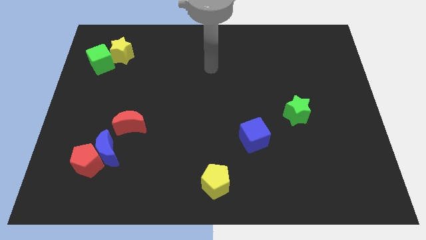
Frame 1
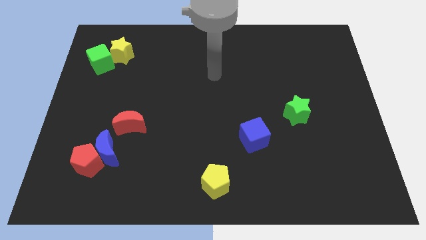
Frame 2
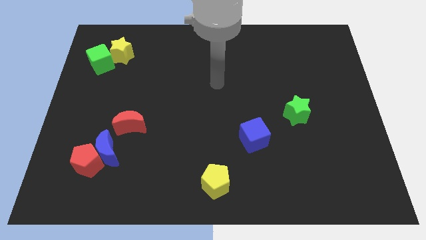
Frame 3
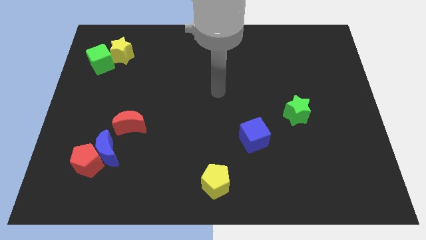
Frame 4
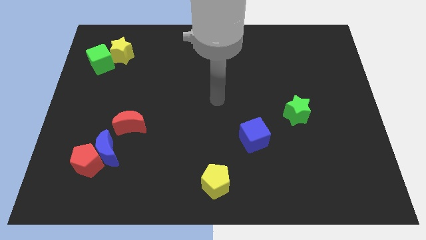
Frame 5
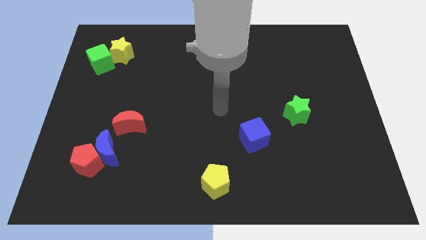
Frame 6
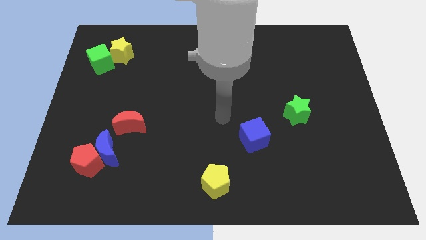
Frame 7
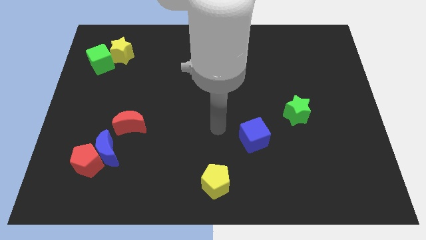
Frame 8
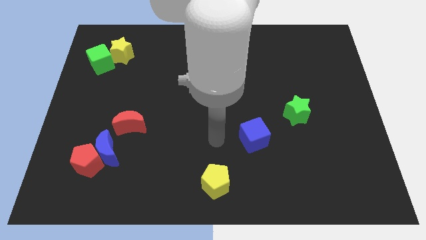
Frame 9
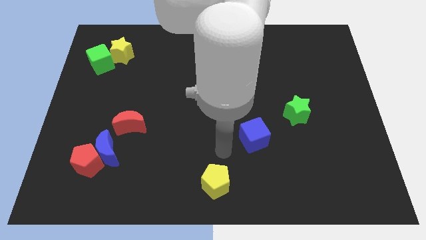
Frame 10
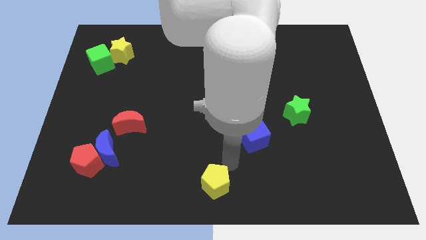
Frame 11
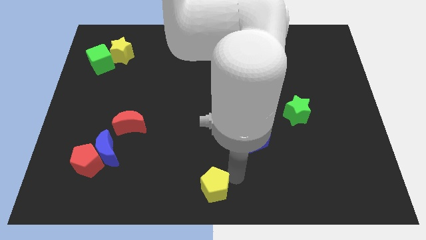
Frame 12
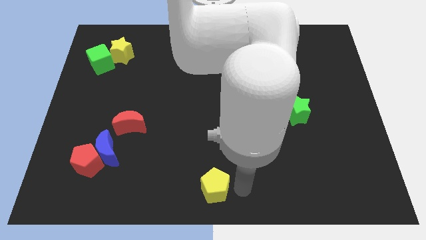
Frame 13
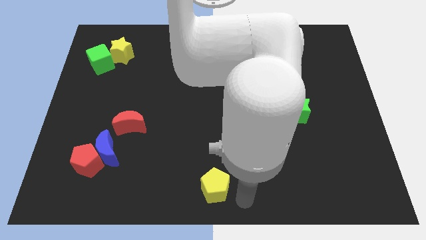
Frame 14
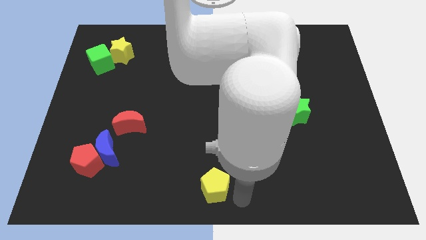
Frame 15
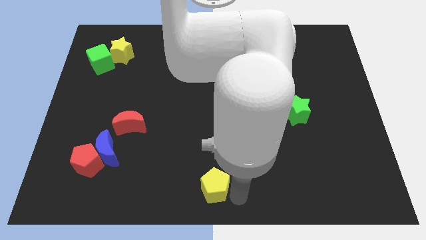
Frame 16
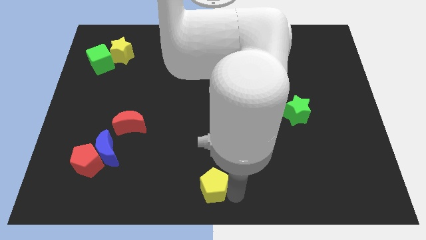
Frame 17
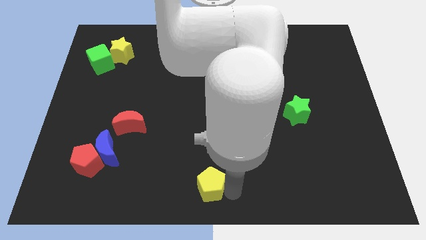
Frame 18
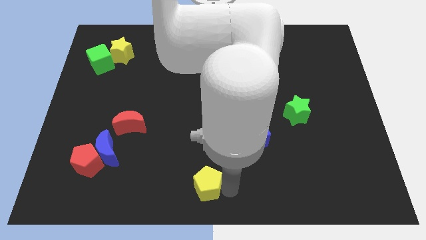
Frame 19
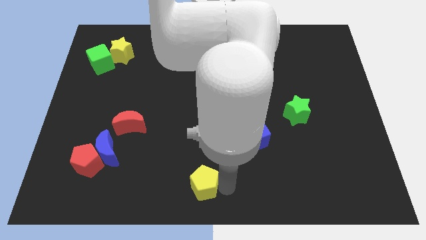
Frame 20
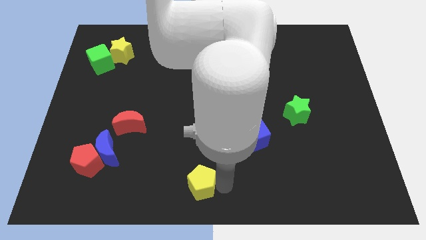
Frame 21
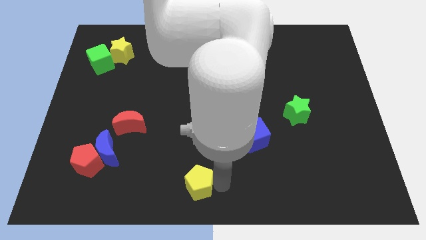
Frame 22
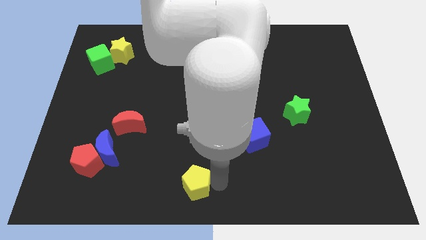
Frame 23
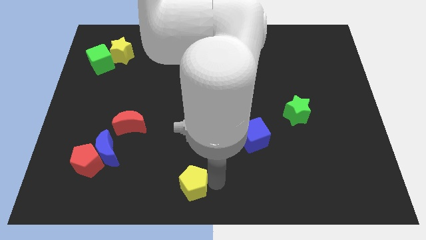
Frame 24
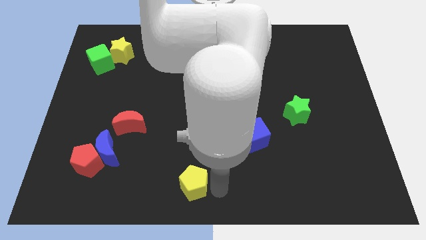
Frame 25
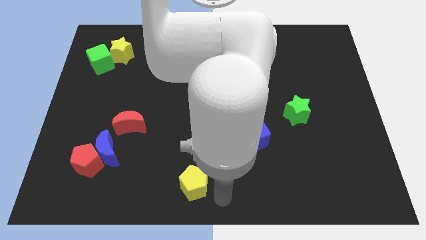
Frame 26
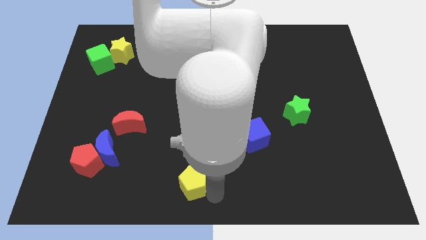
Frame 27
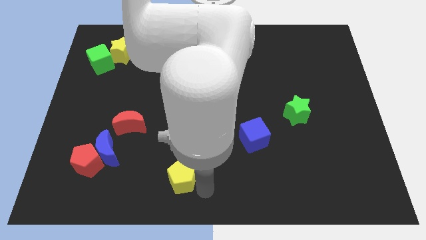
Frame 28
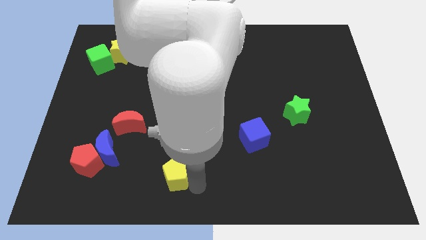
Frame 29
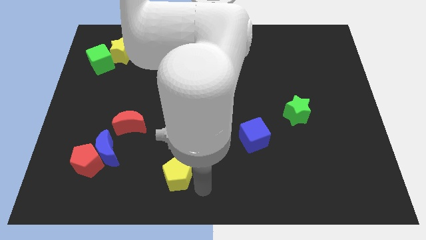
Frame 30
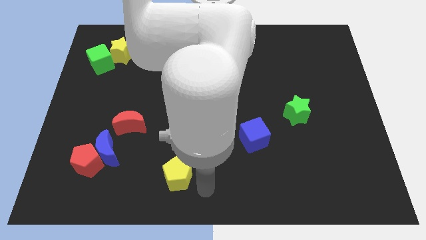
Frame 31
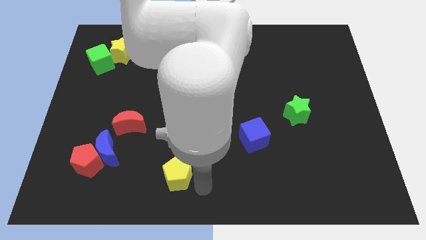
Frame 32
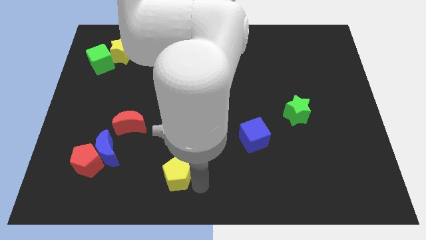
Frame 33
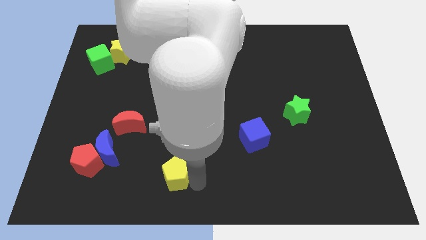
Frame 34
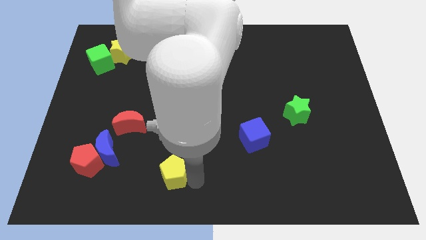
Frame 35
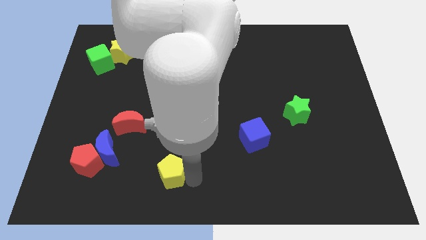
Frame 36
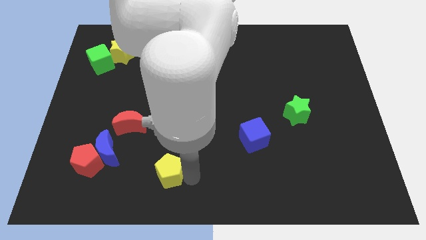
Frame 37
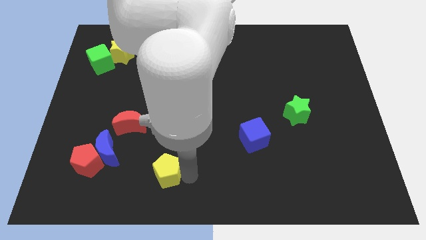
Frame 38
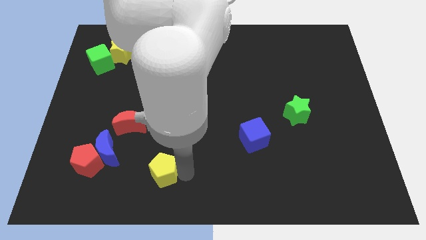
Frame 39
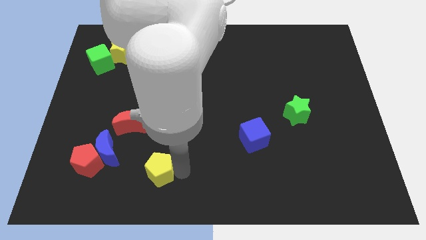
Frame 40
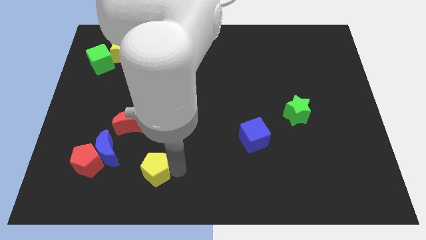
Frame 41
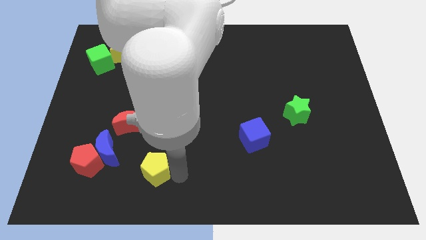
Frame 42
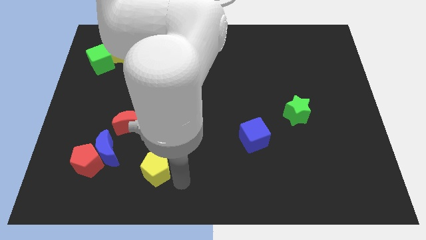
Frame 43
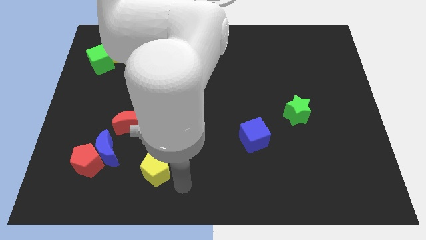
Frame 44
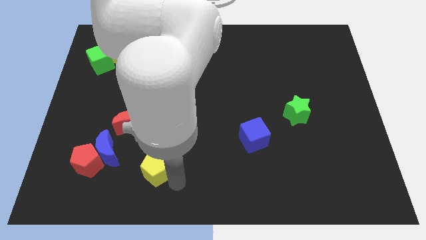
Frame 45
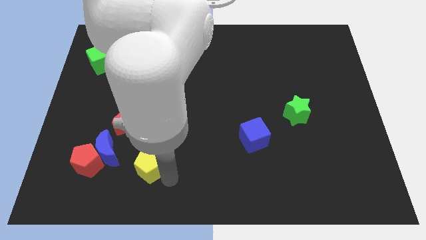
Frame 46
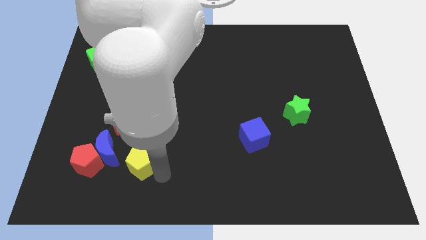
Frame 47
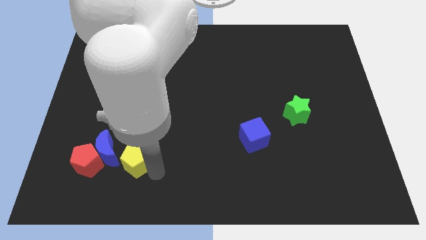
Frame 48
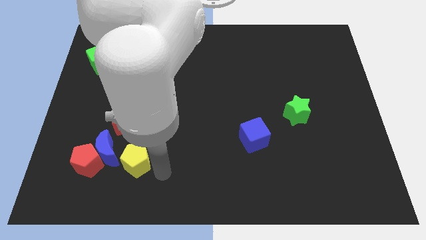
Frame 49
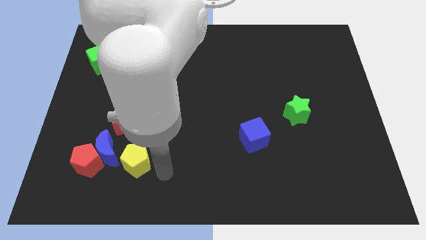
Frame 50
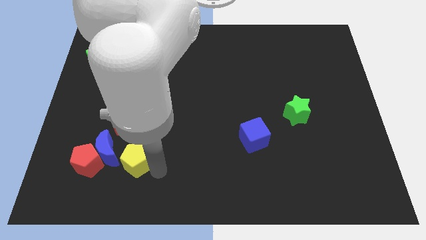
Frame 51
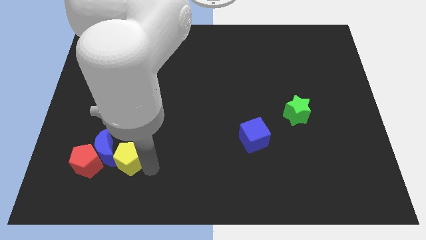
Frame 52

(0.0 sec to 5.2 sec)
put the yellow pentagon close to the blue moon

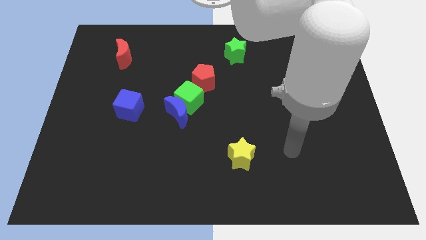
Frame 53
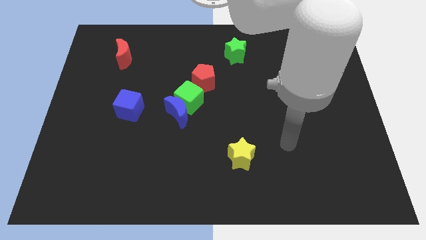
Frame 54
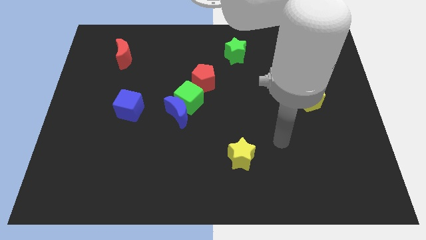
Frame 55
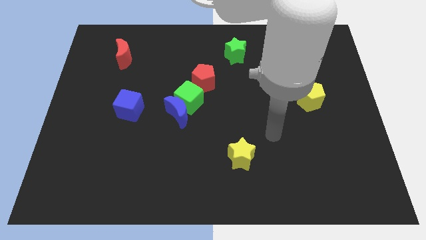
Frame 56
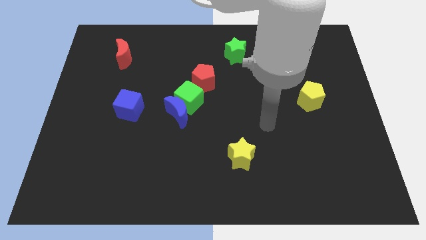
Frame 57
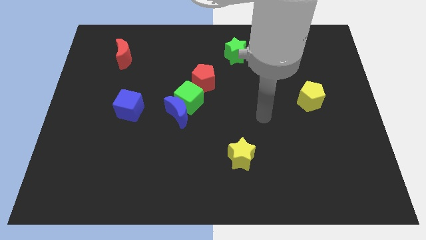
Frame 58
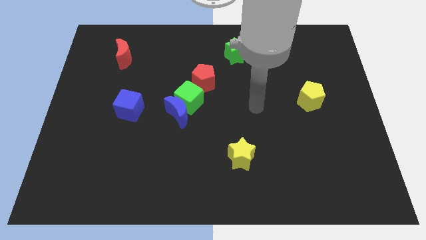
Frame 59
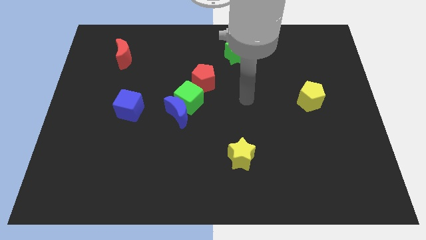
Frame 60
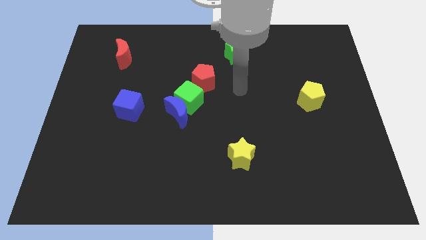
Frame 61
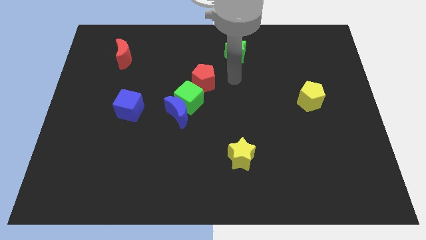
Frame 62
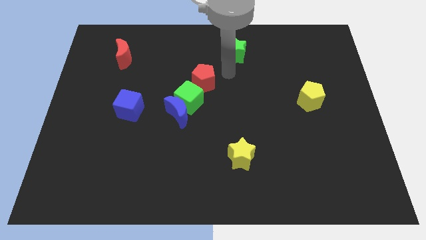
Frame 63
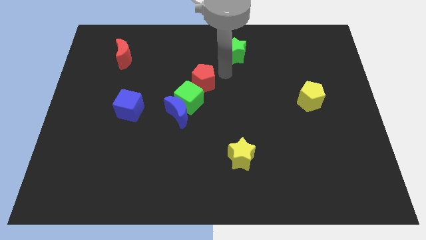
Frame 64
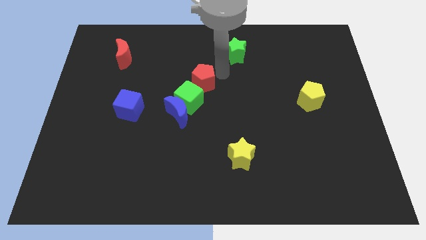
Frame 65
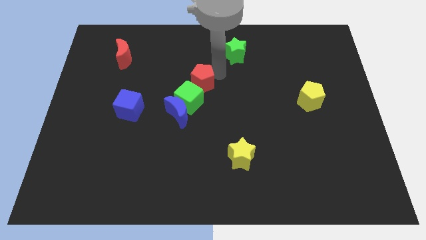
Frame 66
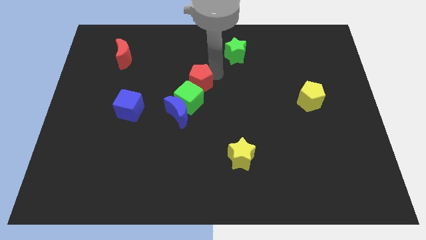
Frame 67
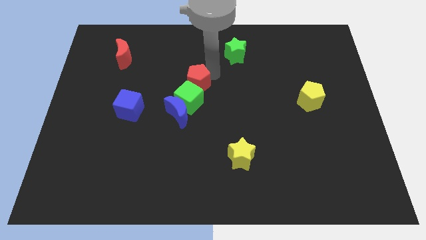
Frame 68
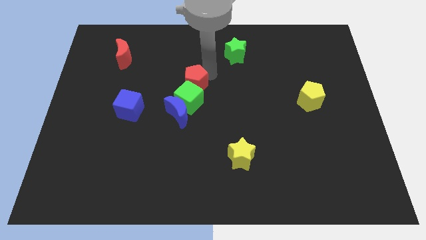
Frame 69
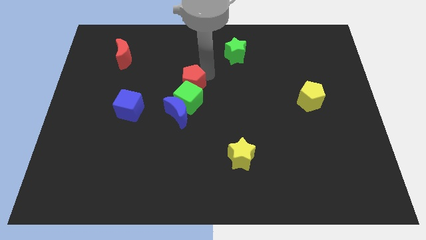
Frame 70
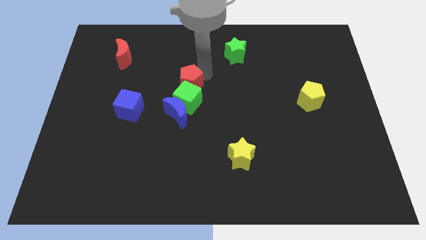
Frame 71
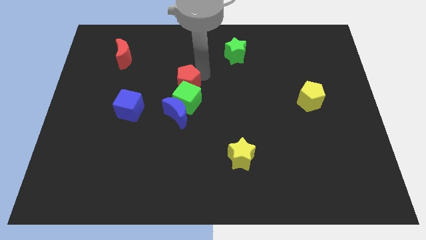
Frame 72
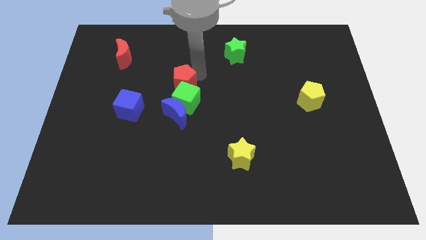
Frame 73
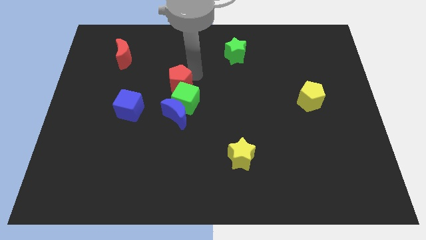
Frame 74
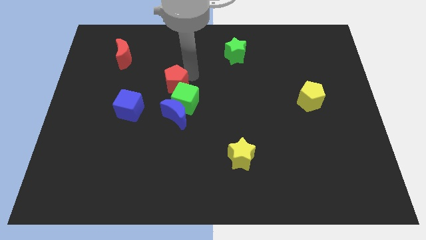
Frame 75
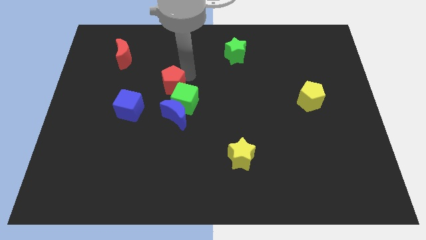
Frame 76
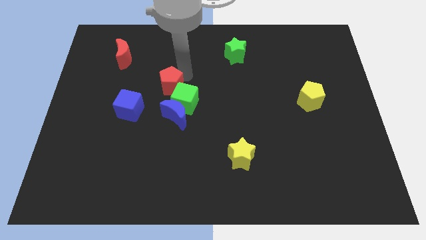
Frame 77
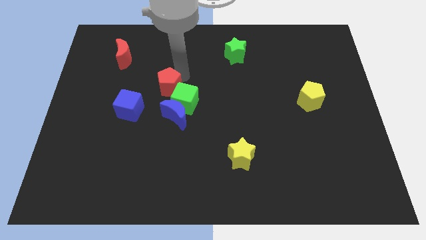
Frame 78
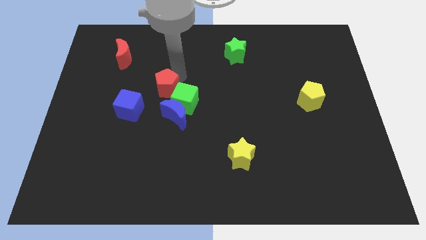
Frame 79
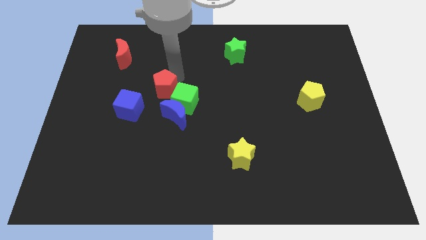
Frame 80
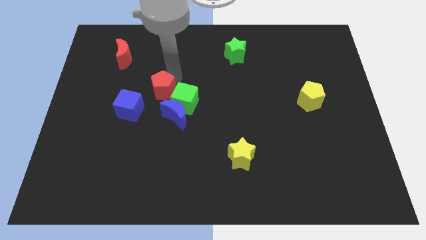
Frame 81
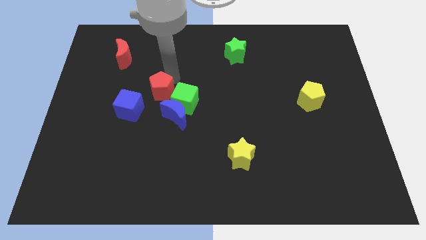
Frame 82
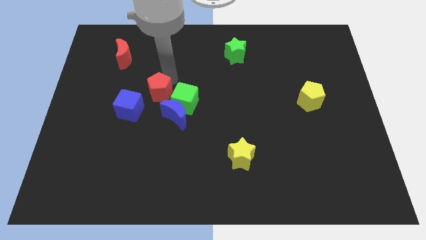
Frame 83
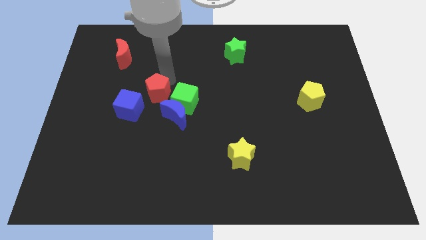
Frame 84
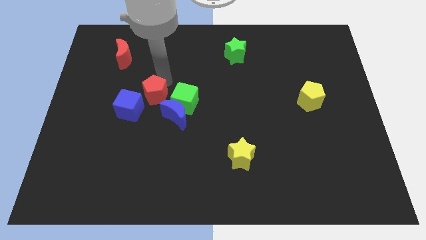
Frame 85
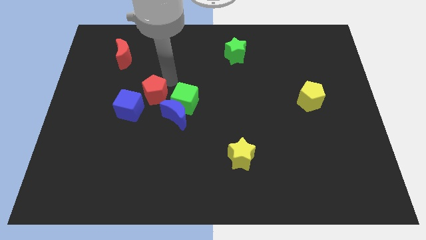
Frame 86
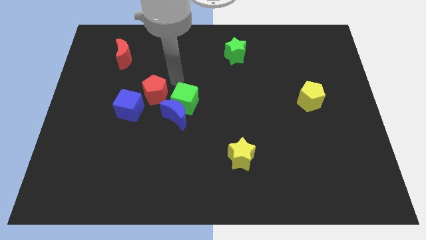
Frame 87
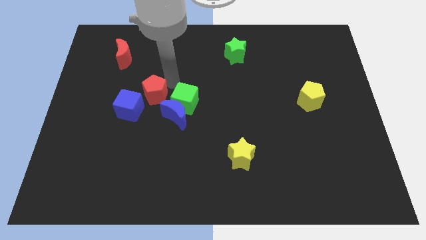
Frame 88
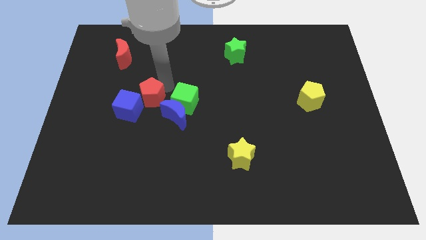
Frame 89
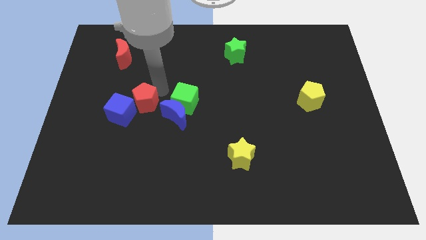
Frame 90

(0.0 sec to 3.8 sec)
push the red pentagon next to the blue cube
